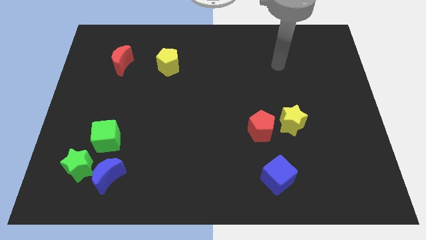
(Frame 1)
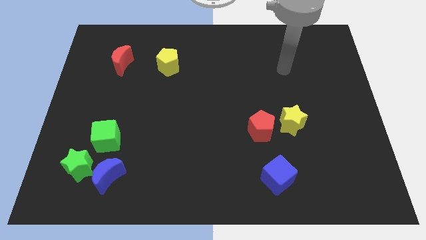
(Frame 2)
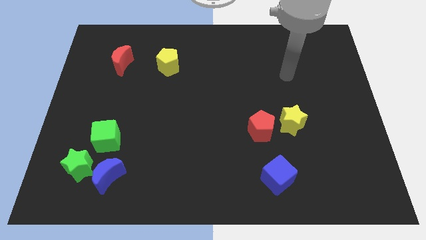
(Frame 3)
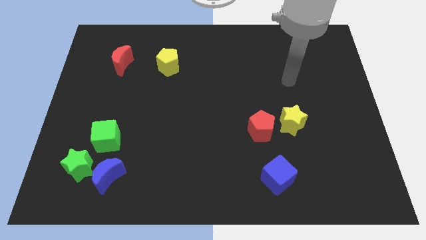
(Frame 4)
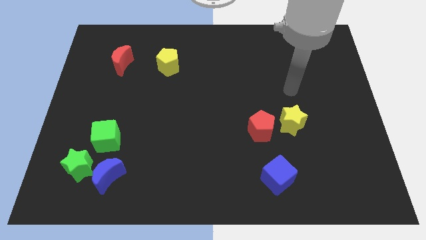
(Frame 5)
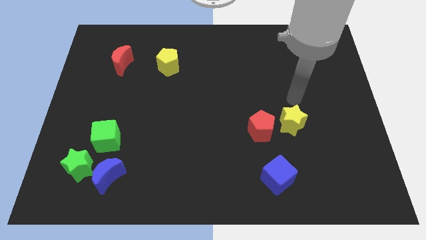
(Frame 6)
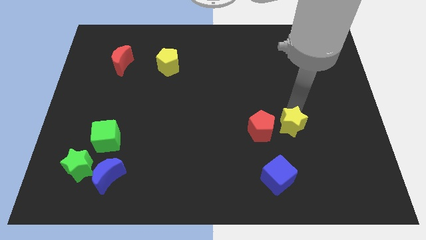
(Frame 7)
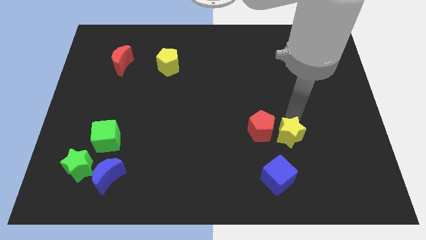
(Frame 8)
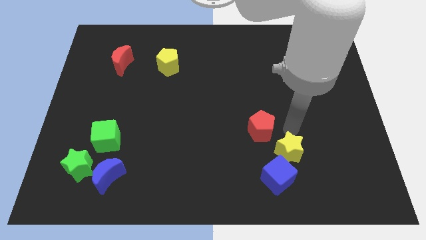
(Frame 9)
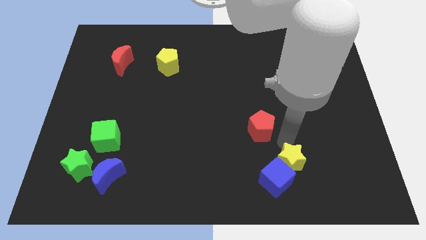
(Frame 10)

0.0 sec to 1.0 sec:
separate the red pentagon from the yellow star

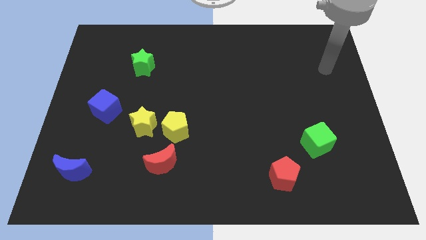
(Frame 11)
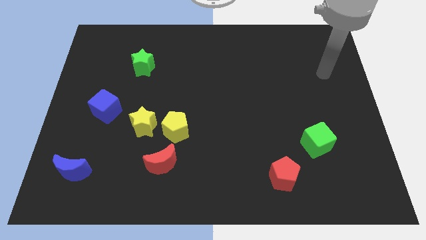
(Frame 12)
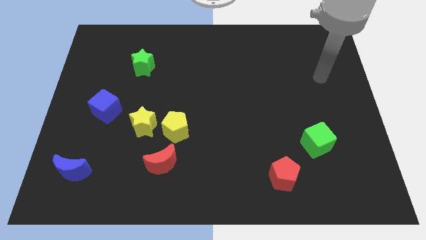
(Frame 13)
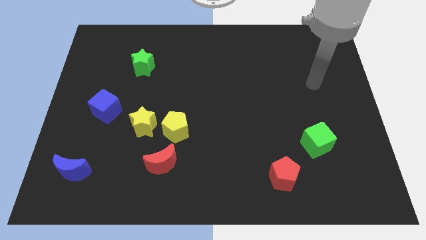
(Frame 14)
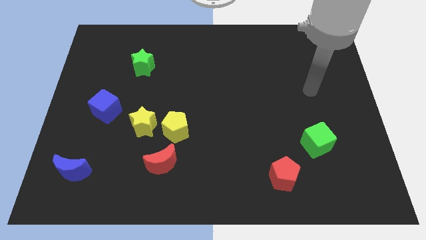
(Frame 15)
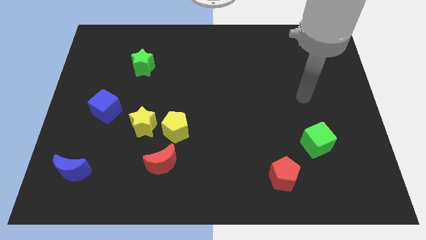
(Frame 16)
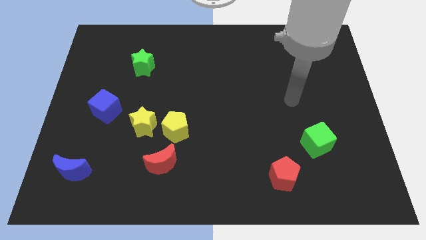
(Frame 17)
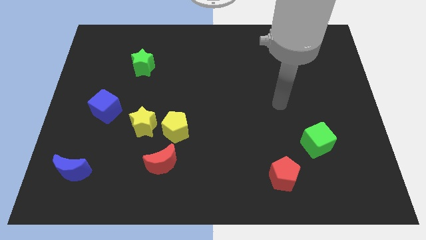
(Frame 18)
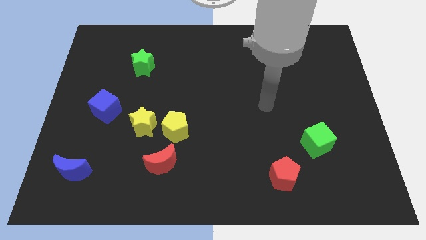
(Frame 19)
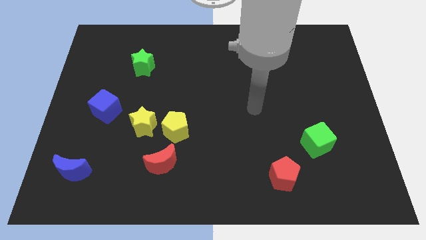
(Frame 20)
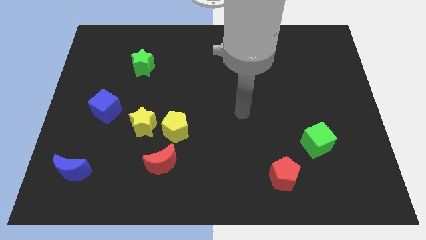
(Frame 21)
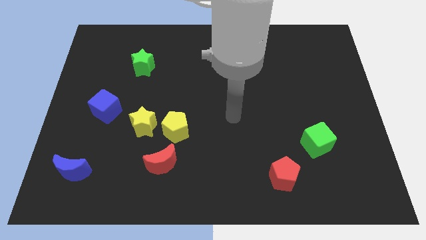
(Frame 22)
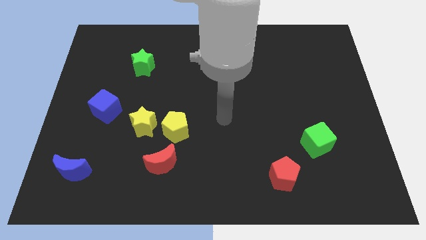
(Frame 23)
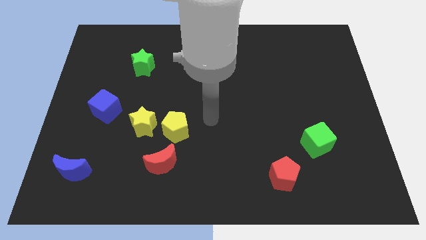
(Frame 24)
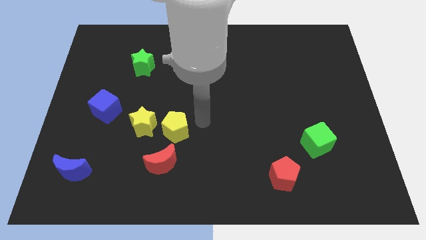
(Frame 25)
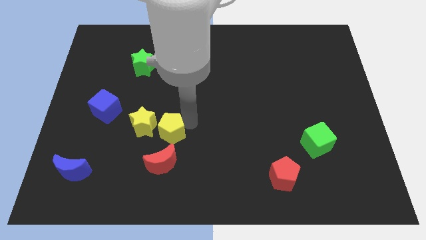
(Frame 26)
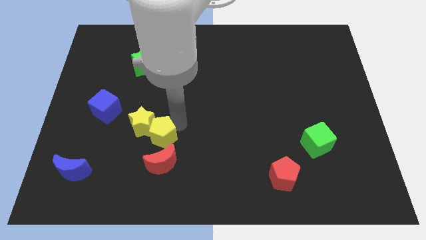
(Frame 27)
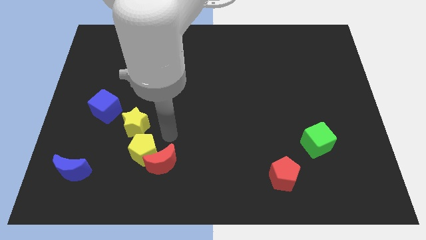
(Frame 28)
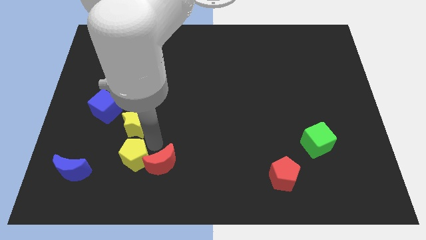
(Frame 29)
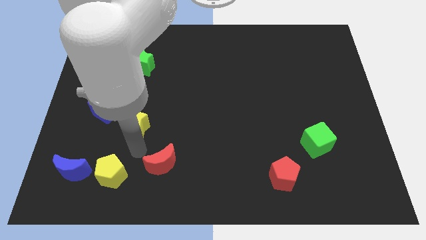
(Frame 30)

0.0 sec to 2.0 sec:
pull the yellow star apart from the yellow pentagon

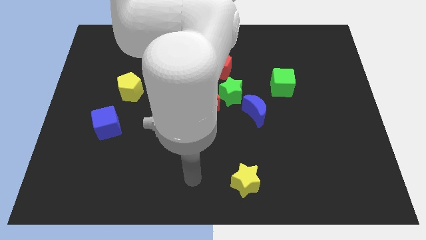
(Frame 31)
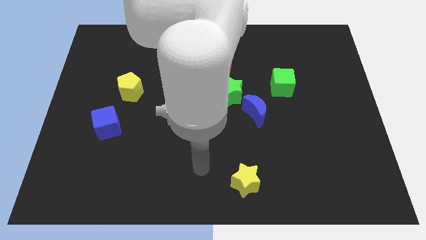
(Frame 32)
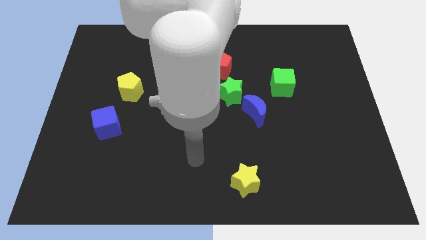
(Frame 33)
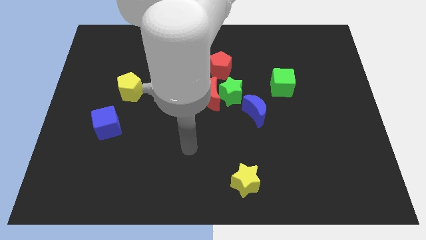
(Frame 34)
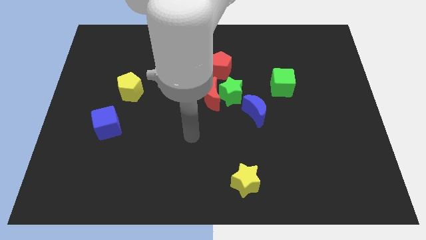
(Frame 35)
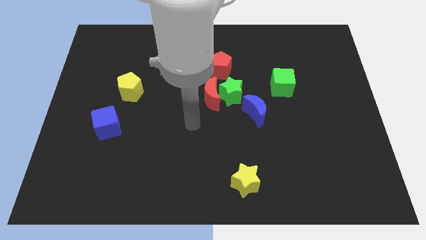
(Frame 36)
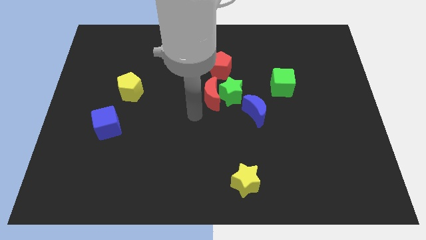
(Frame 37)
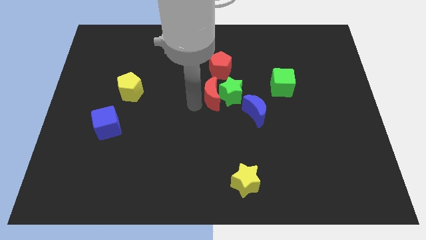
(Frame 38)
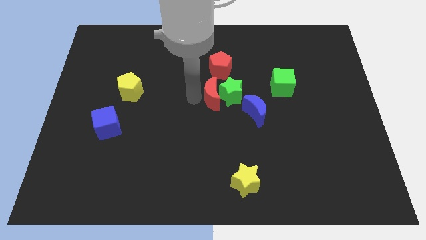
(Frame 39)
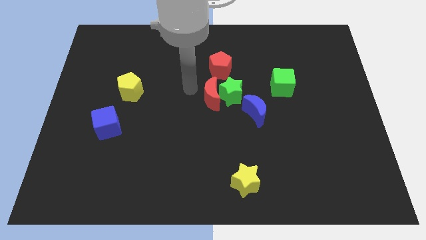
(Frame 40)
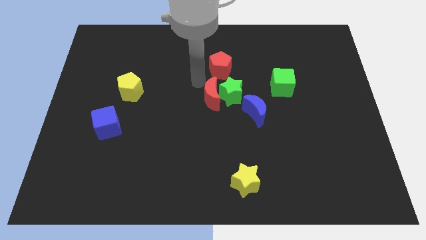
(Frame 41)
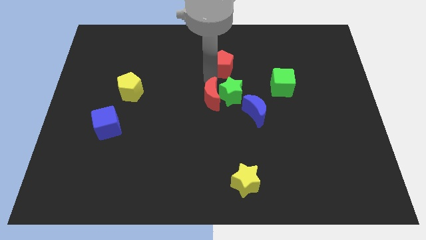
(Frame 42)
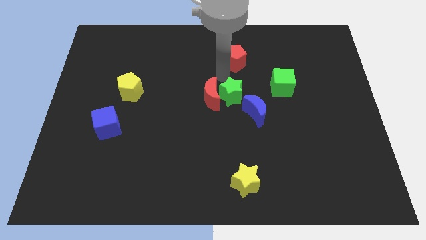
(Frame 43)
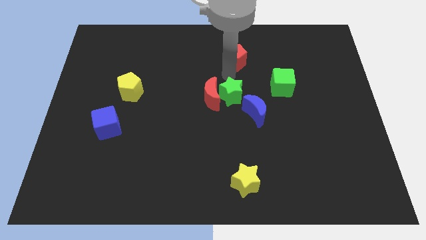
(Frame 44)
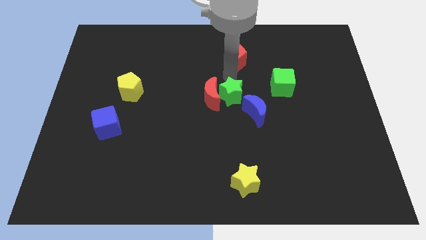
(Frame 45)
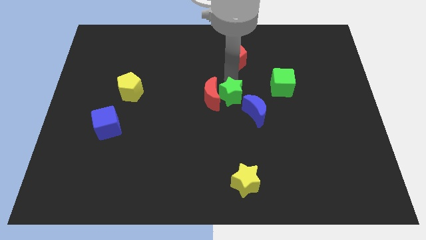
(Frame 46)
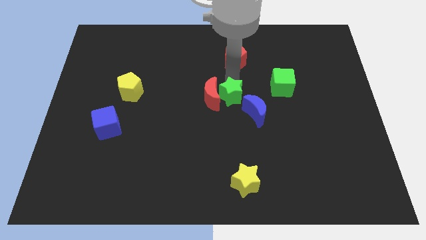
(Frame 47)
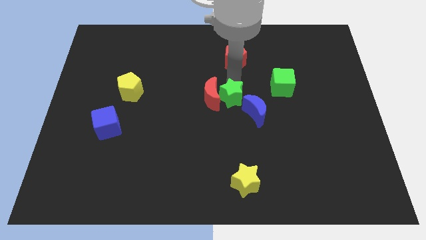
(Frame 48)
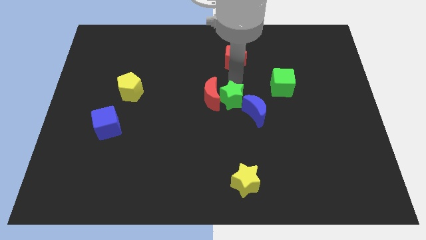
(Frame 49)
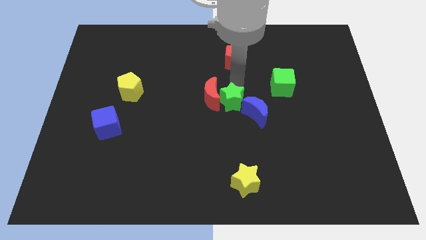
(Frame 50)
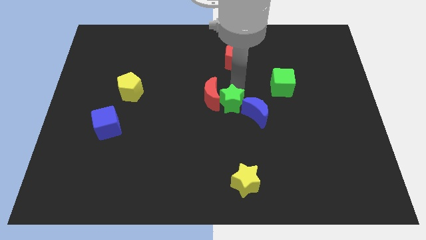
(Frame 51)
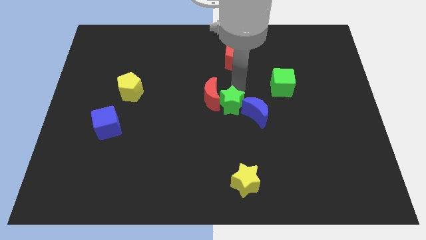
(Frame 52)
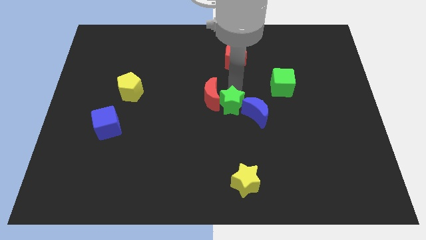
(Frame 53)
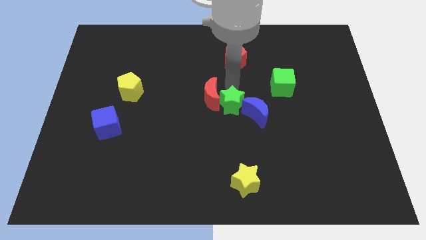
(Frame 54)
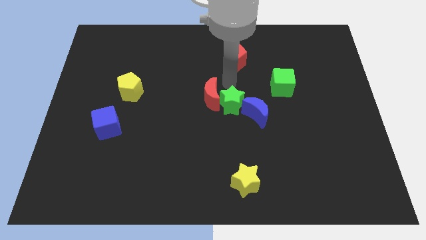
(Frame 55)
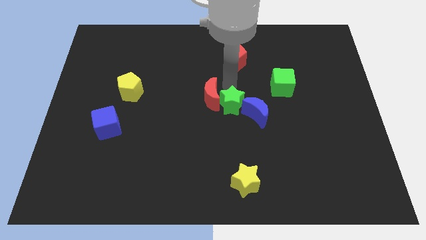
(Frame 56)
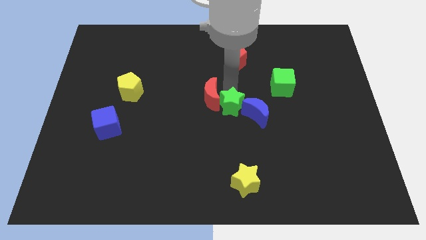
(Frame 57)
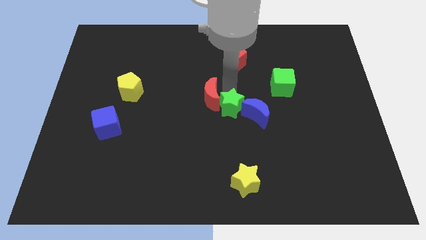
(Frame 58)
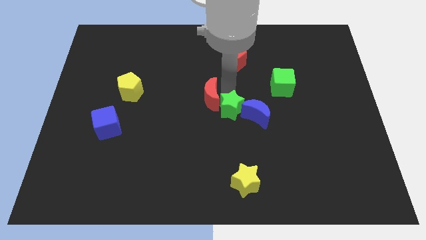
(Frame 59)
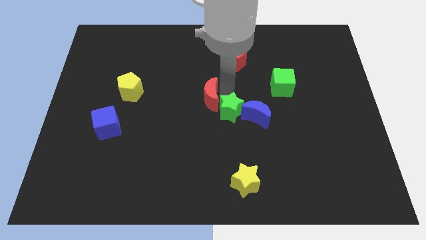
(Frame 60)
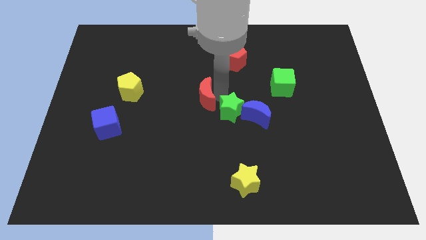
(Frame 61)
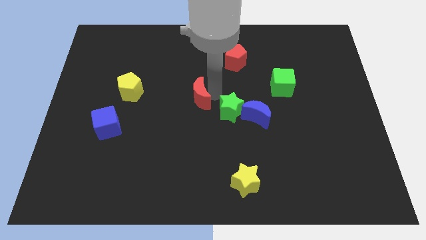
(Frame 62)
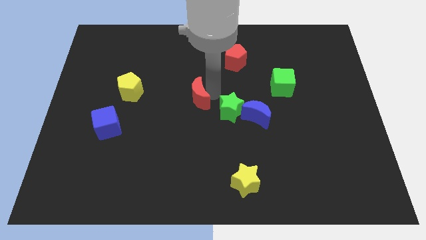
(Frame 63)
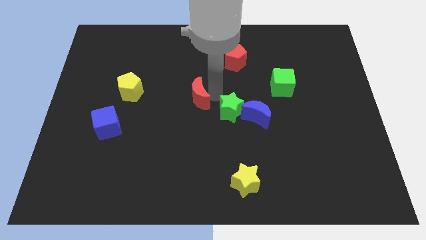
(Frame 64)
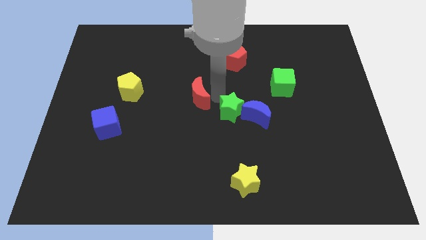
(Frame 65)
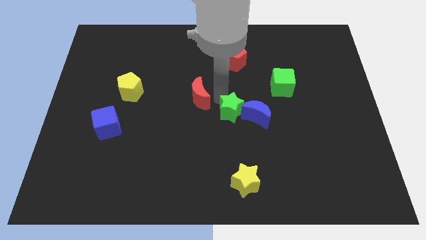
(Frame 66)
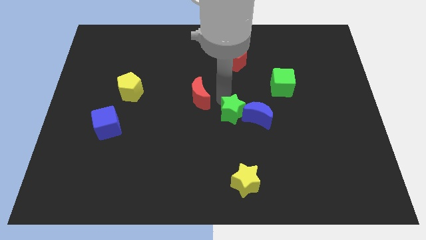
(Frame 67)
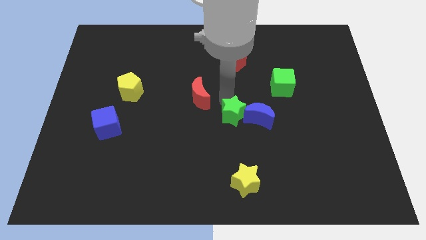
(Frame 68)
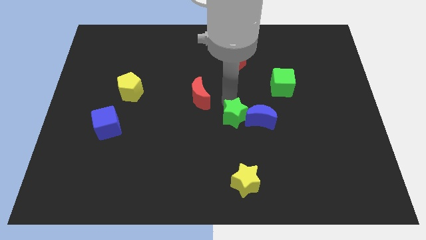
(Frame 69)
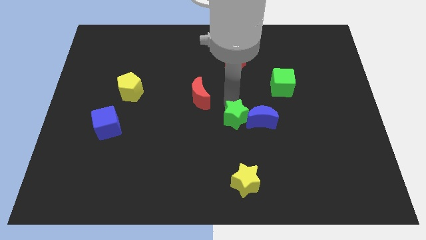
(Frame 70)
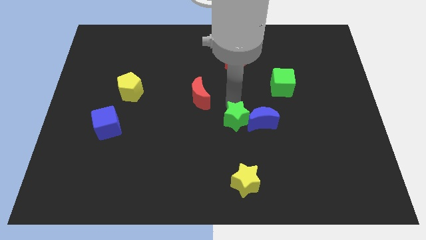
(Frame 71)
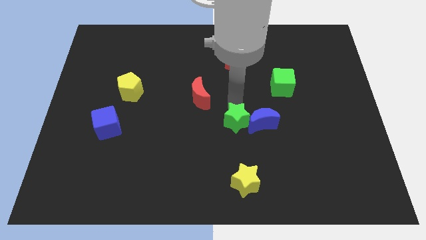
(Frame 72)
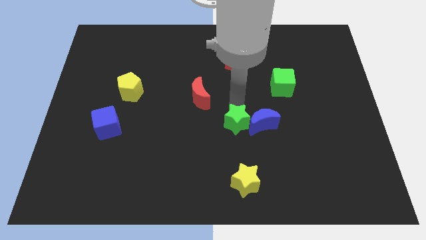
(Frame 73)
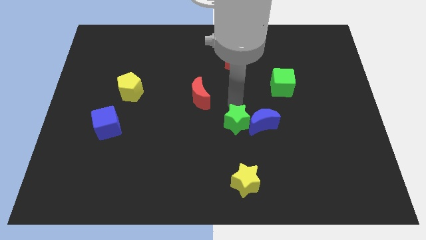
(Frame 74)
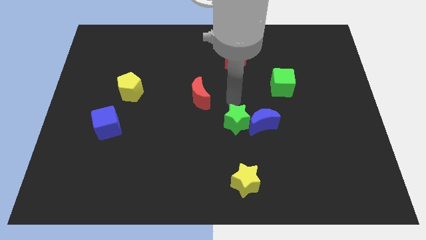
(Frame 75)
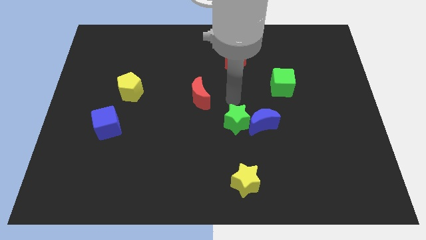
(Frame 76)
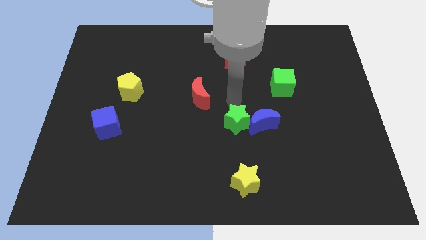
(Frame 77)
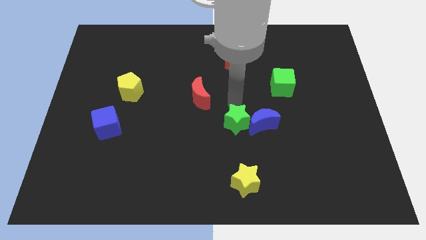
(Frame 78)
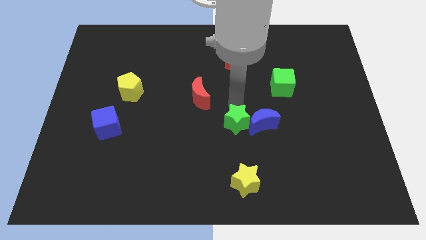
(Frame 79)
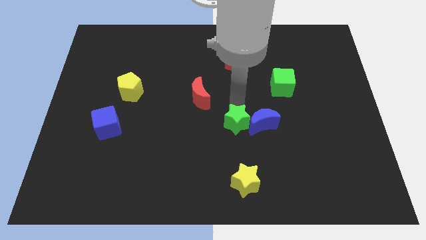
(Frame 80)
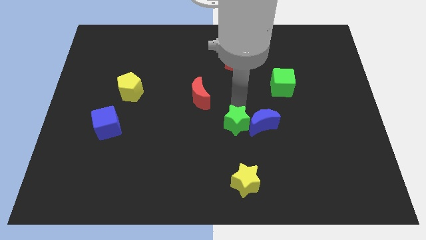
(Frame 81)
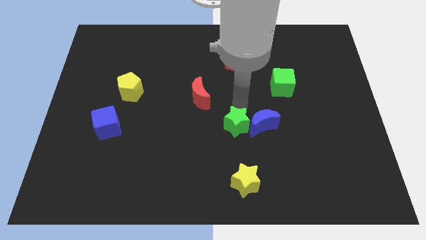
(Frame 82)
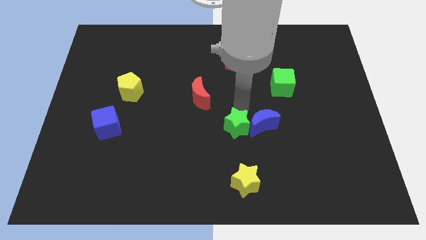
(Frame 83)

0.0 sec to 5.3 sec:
separate the green star from the group

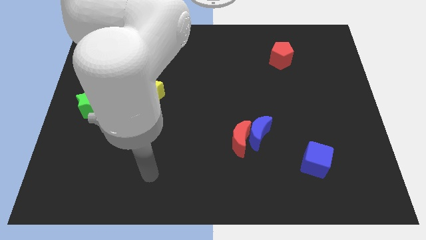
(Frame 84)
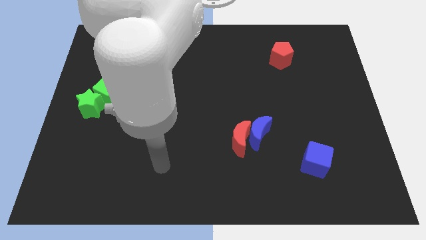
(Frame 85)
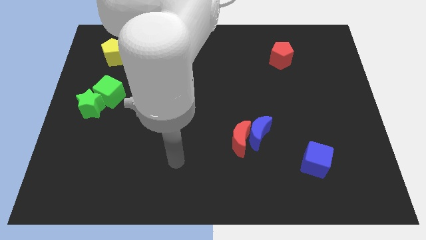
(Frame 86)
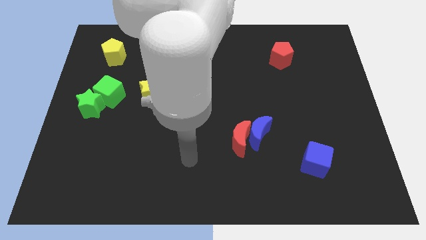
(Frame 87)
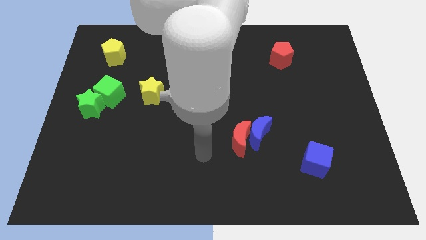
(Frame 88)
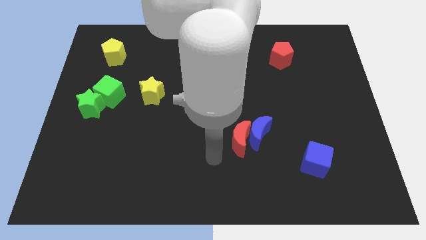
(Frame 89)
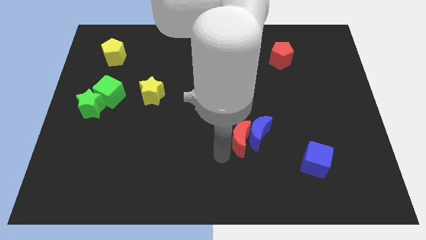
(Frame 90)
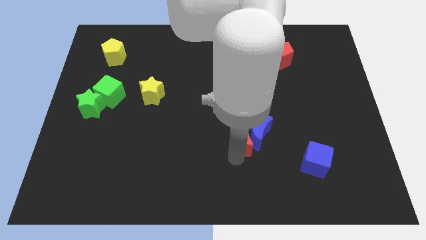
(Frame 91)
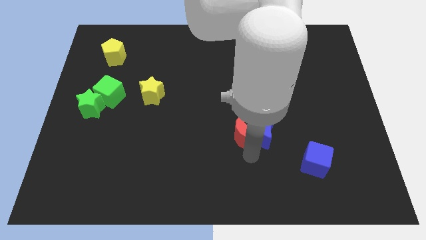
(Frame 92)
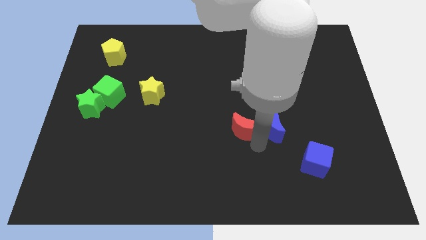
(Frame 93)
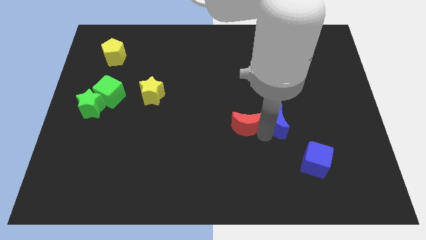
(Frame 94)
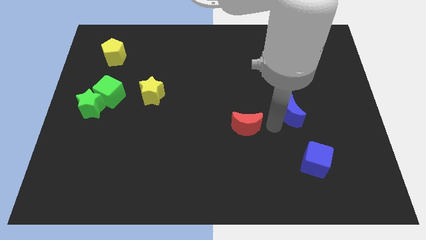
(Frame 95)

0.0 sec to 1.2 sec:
move the red moon away from the blue moon
